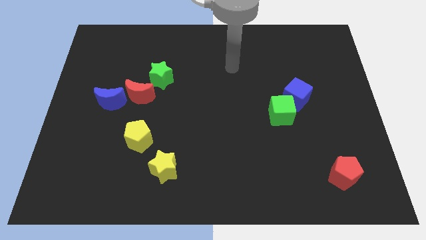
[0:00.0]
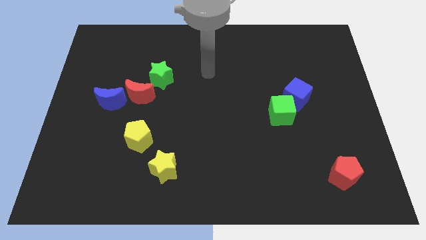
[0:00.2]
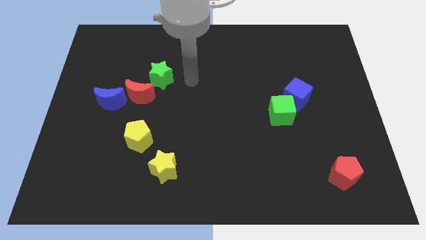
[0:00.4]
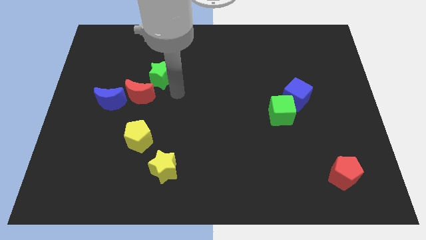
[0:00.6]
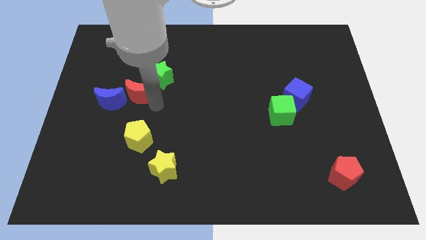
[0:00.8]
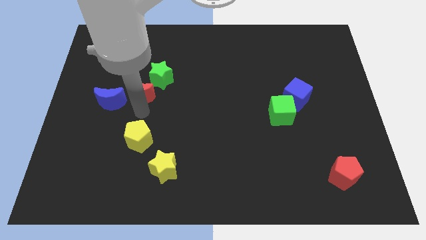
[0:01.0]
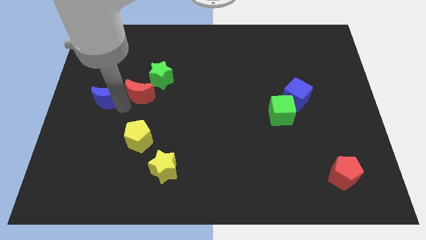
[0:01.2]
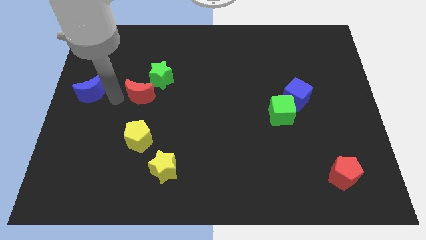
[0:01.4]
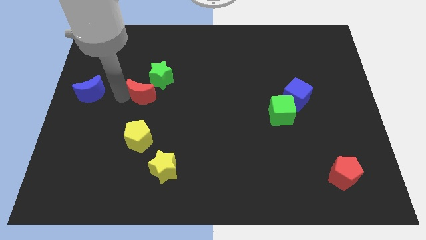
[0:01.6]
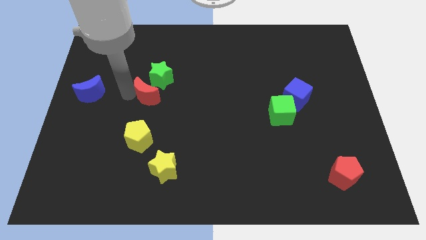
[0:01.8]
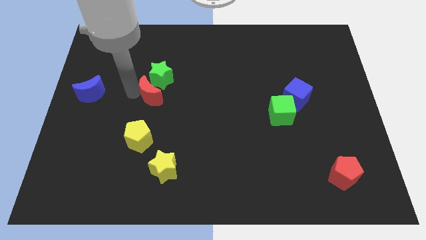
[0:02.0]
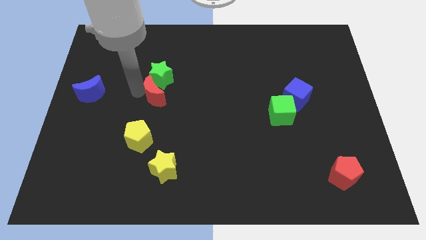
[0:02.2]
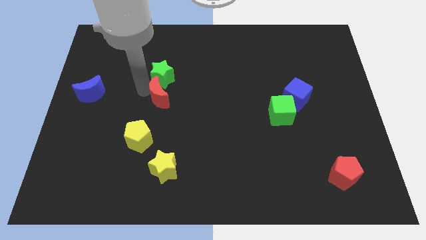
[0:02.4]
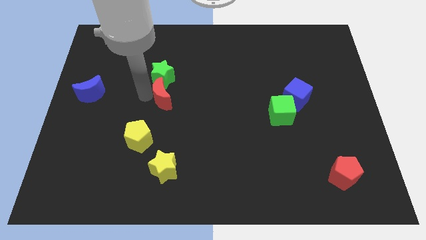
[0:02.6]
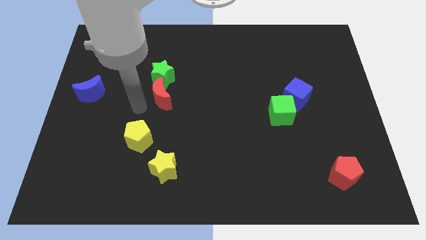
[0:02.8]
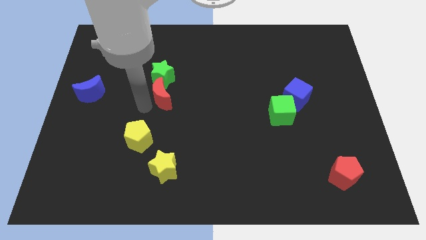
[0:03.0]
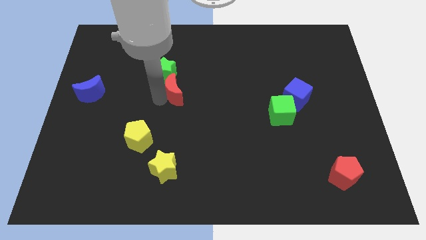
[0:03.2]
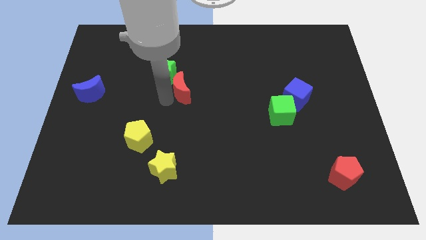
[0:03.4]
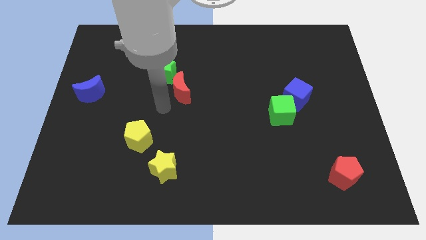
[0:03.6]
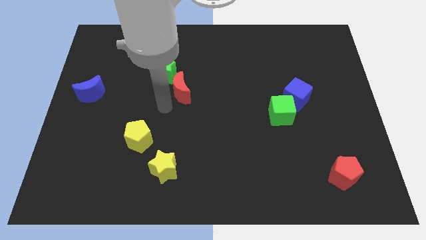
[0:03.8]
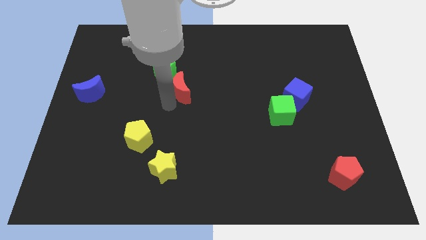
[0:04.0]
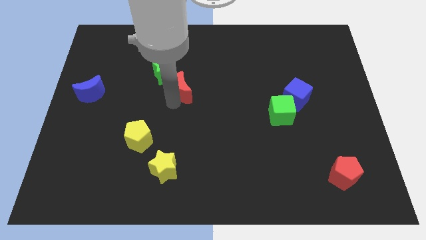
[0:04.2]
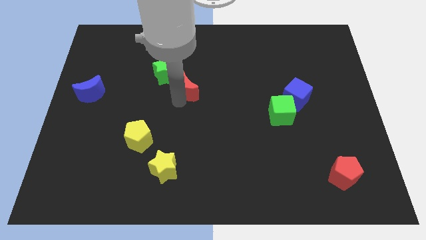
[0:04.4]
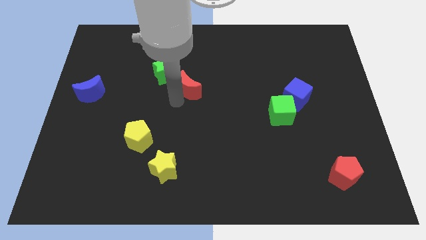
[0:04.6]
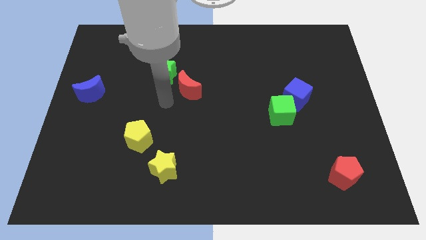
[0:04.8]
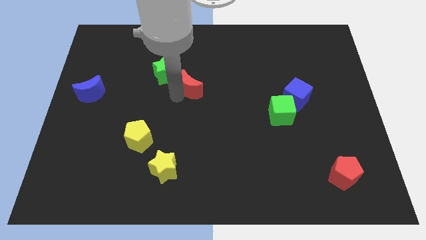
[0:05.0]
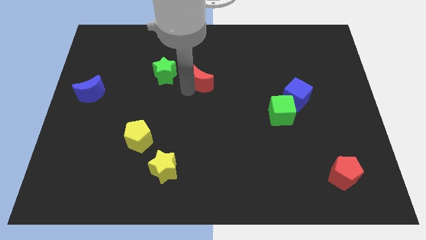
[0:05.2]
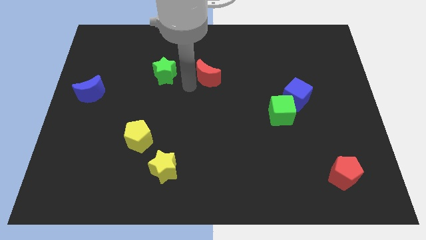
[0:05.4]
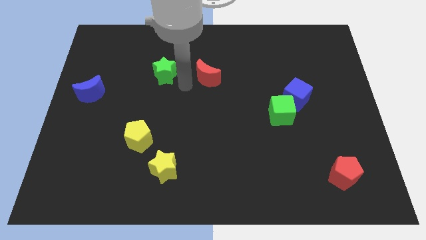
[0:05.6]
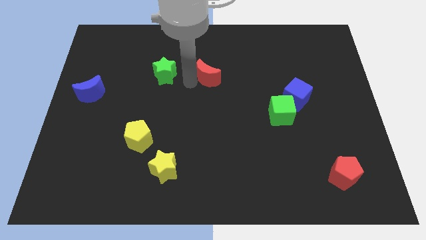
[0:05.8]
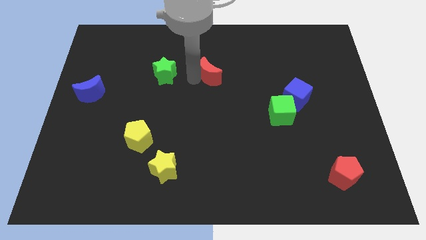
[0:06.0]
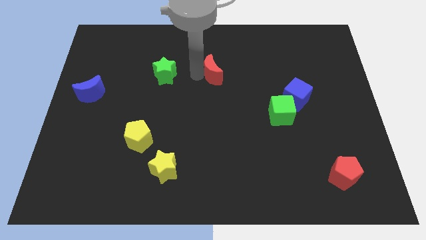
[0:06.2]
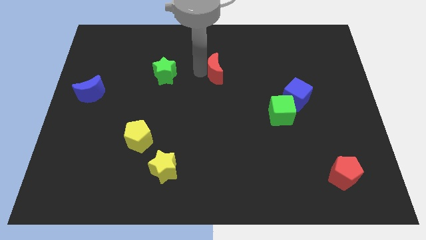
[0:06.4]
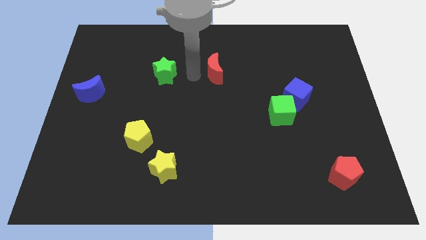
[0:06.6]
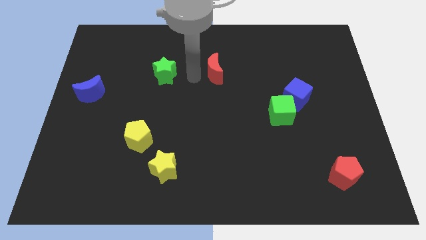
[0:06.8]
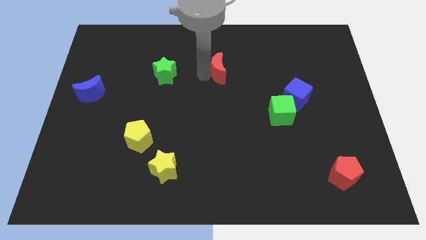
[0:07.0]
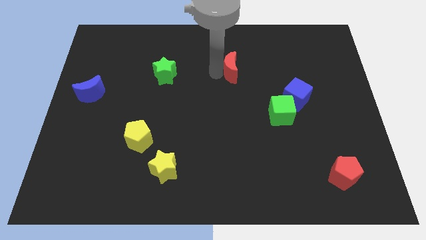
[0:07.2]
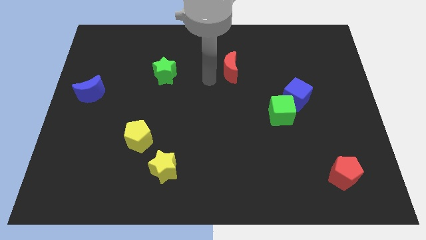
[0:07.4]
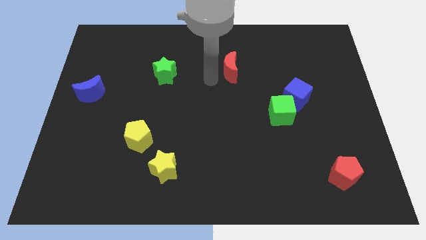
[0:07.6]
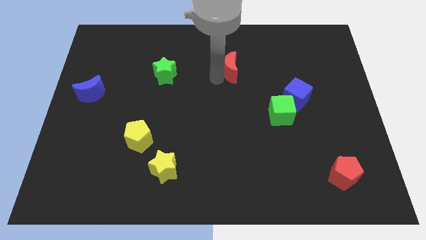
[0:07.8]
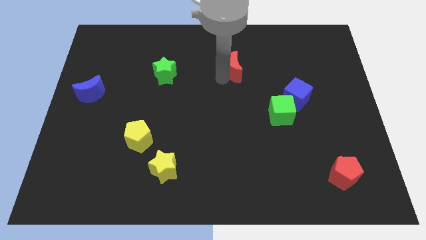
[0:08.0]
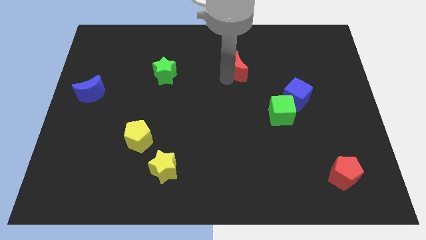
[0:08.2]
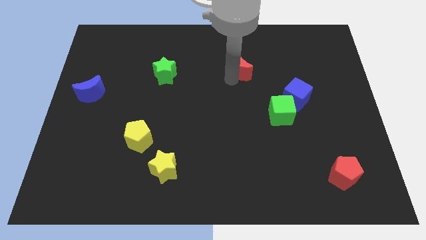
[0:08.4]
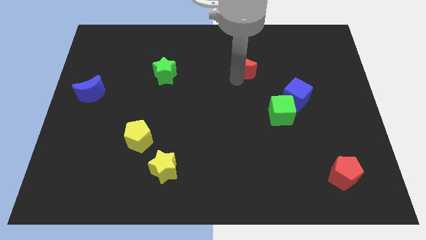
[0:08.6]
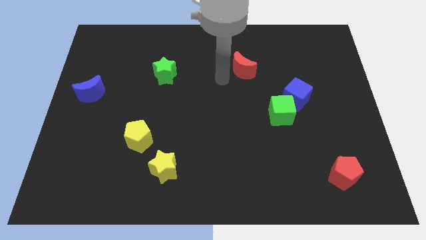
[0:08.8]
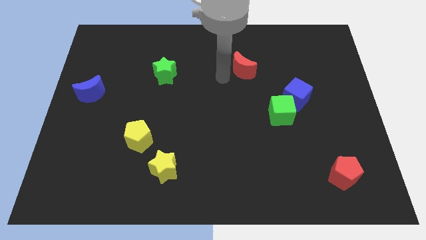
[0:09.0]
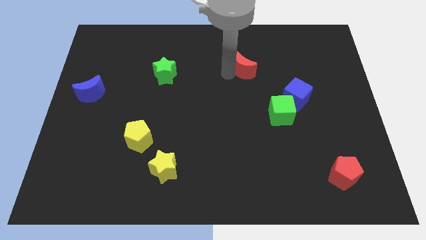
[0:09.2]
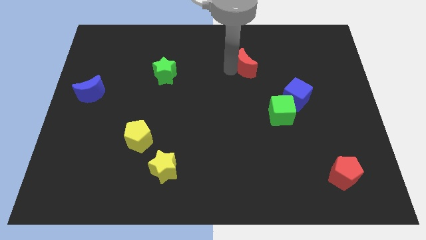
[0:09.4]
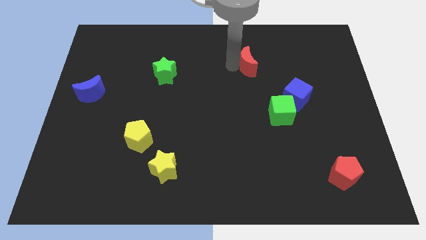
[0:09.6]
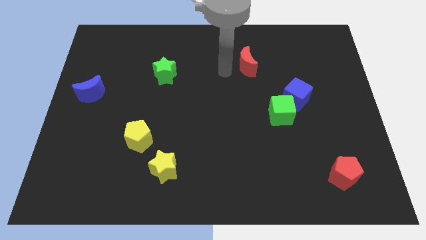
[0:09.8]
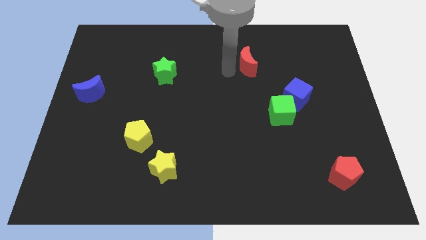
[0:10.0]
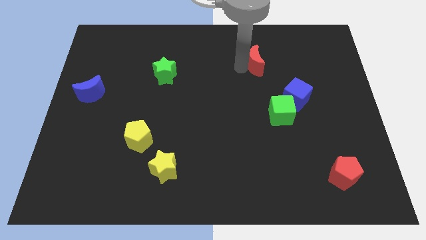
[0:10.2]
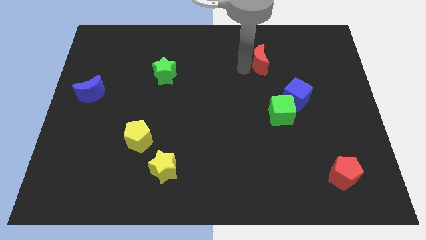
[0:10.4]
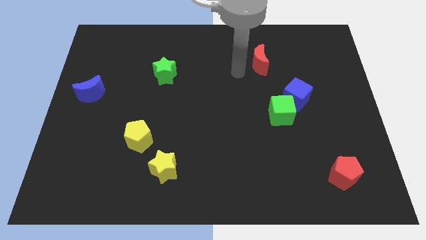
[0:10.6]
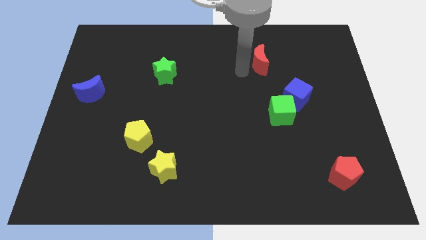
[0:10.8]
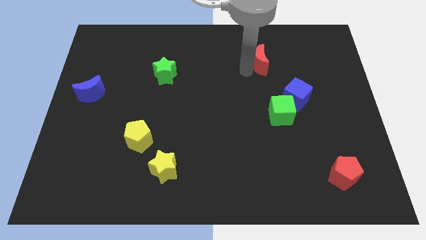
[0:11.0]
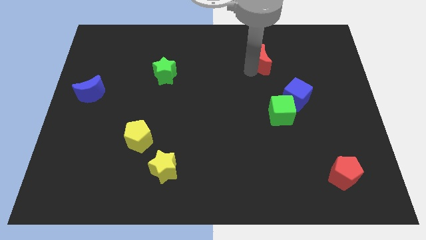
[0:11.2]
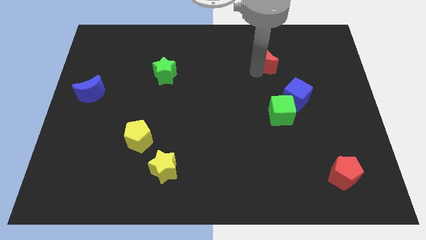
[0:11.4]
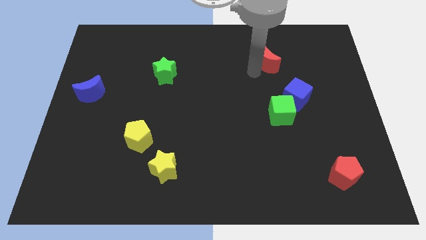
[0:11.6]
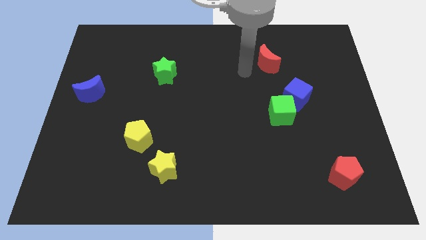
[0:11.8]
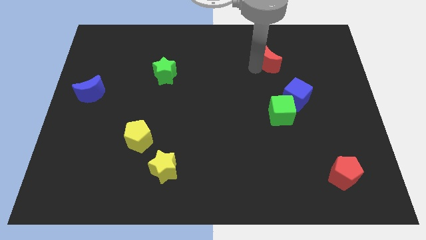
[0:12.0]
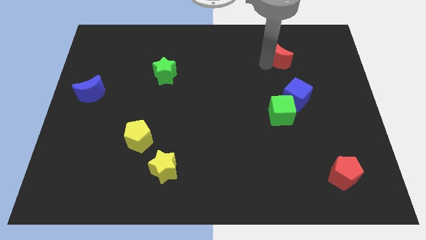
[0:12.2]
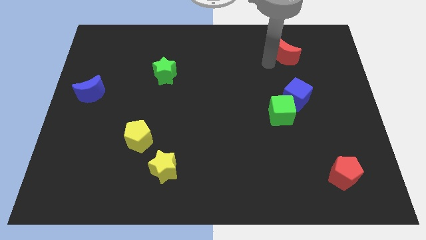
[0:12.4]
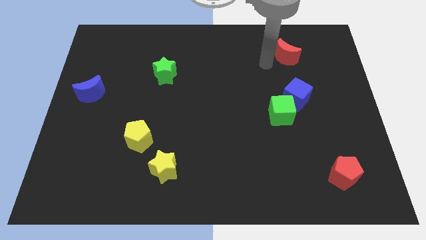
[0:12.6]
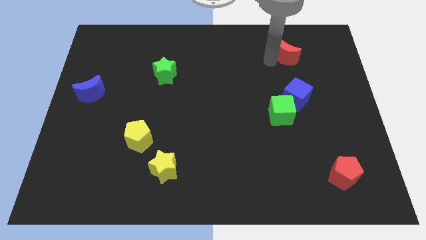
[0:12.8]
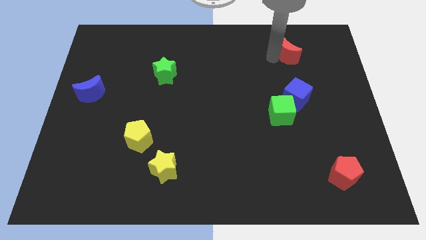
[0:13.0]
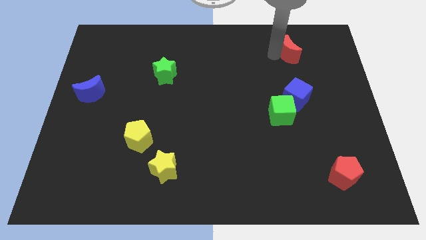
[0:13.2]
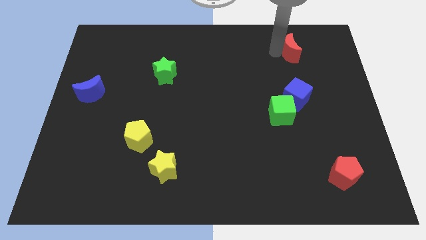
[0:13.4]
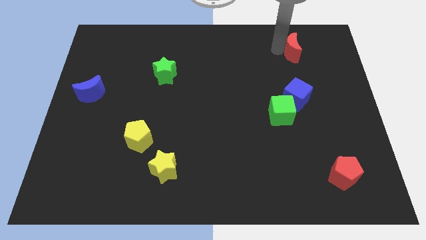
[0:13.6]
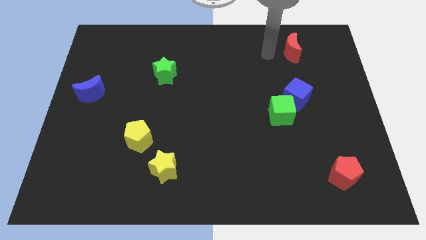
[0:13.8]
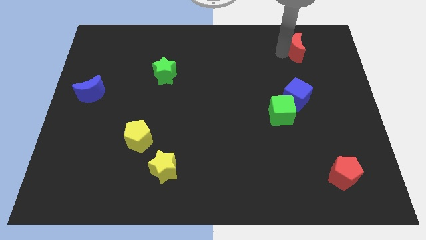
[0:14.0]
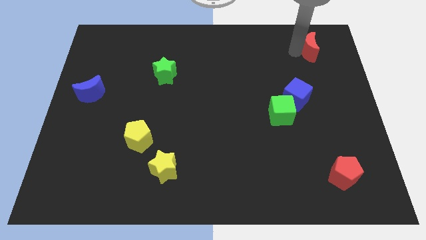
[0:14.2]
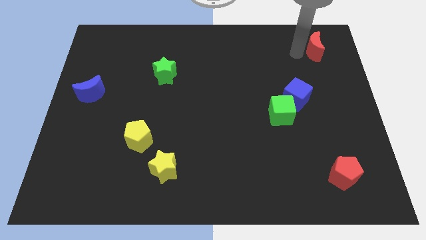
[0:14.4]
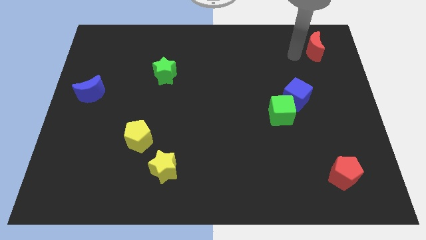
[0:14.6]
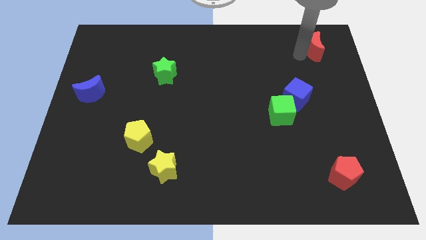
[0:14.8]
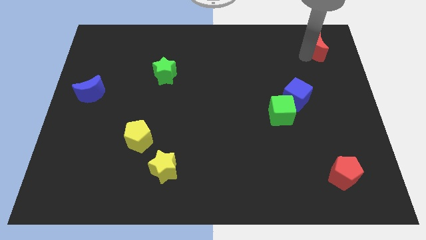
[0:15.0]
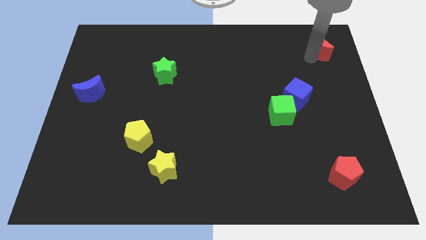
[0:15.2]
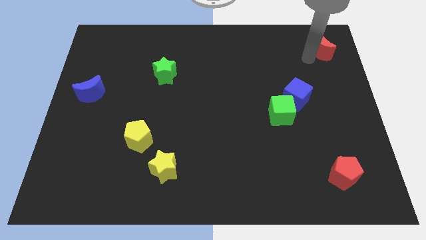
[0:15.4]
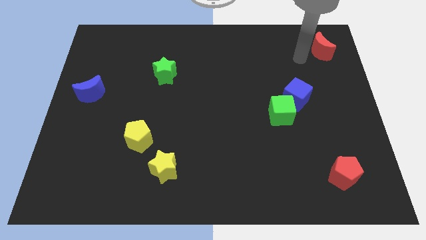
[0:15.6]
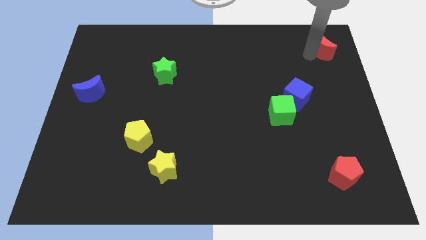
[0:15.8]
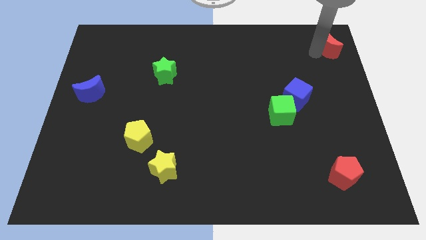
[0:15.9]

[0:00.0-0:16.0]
put the red moon to the top right corner
